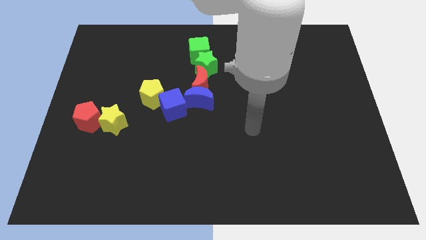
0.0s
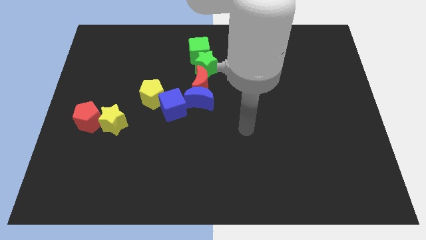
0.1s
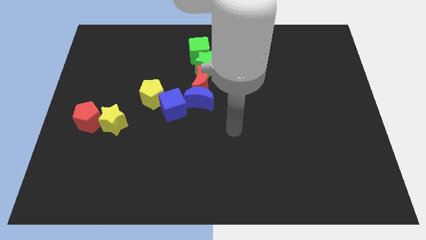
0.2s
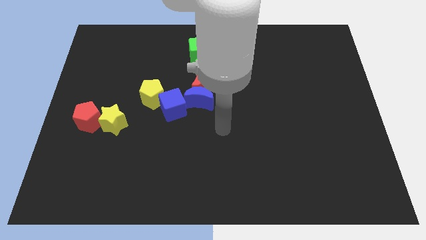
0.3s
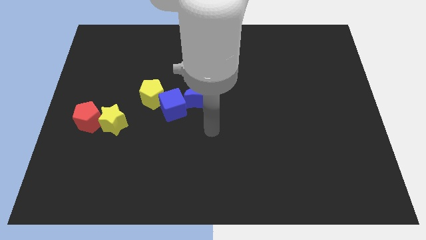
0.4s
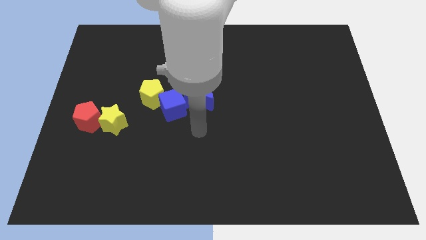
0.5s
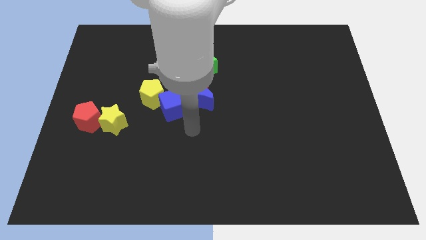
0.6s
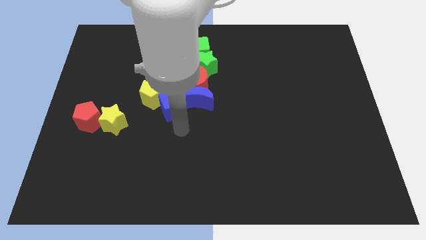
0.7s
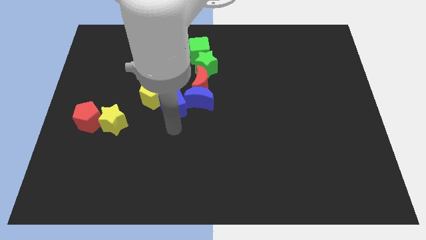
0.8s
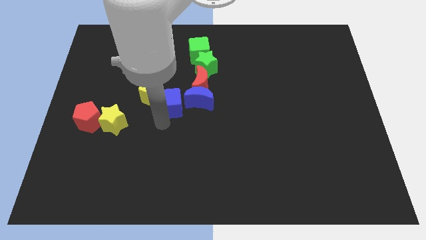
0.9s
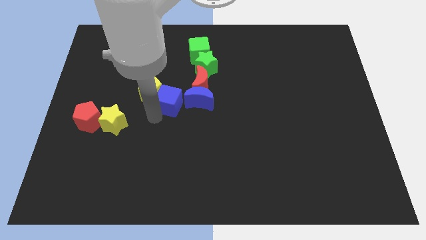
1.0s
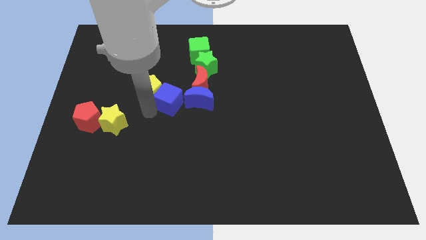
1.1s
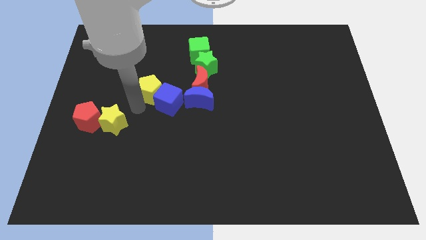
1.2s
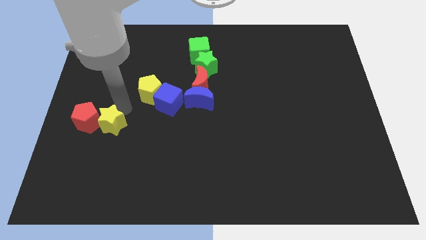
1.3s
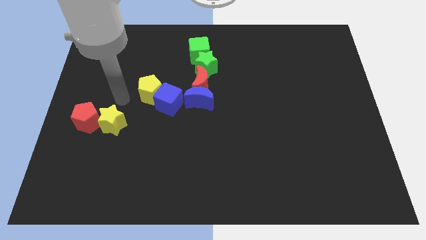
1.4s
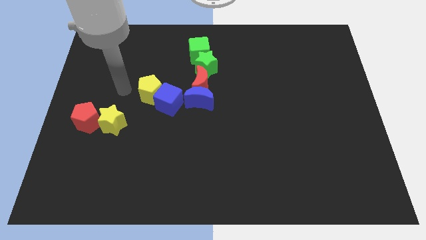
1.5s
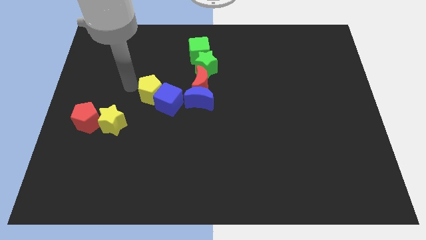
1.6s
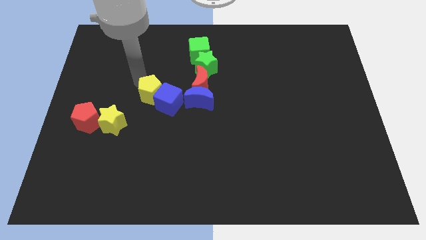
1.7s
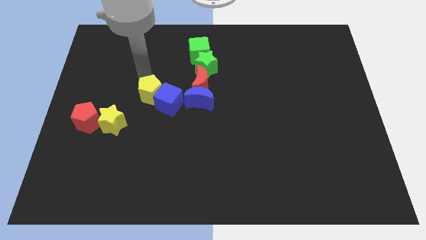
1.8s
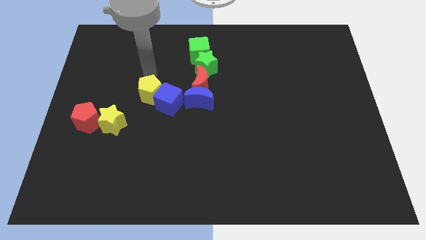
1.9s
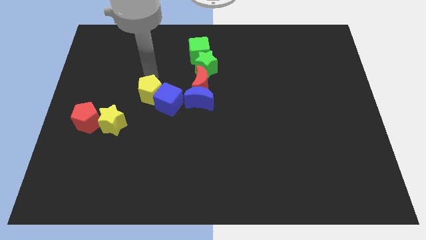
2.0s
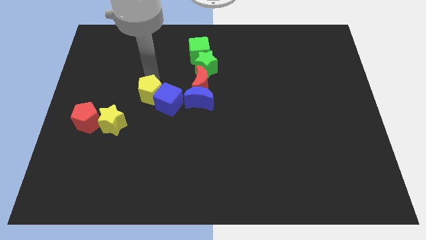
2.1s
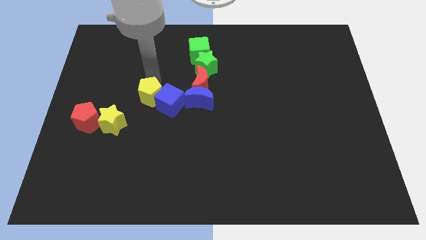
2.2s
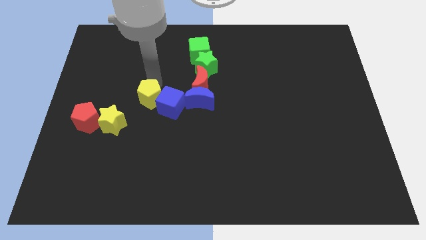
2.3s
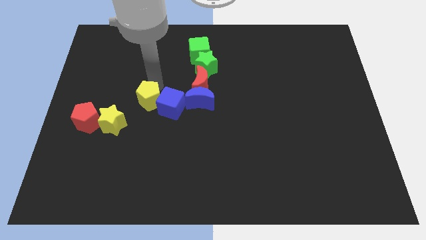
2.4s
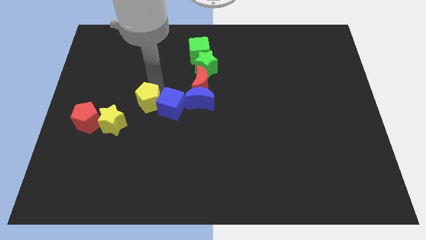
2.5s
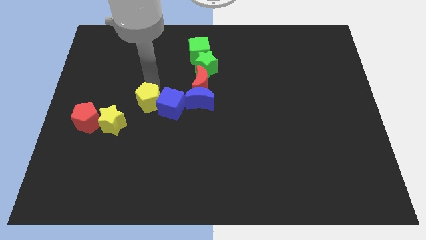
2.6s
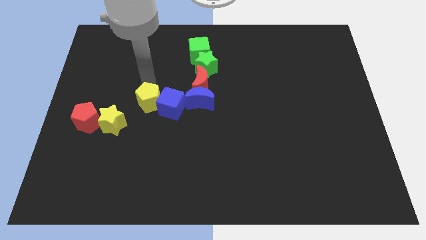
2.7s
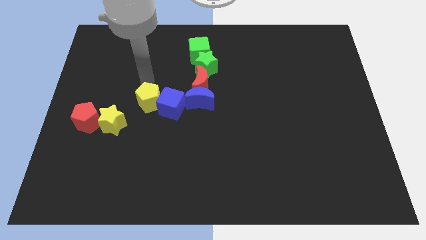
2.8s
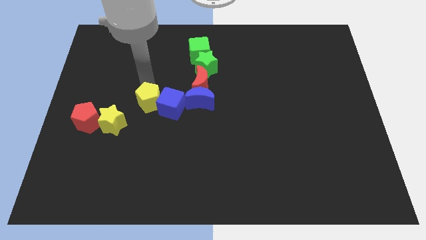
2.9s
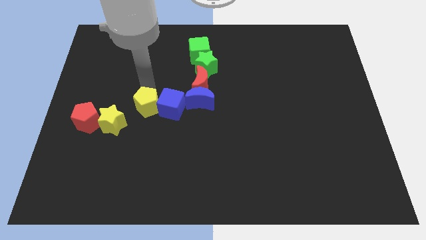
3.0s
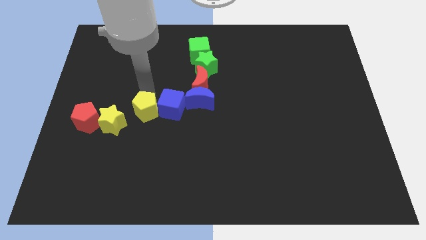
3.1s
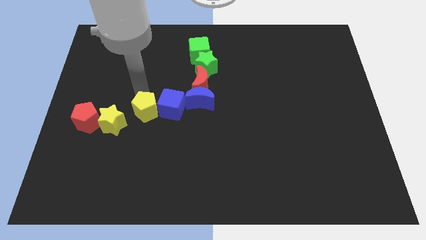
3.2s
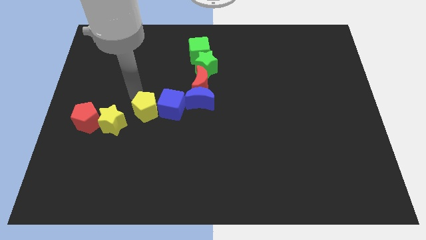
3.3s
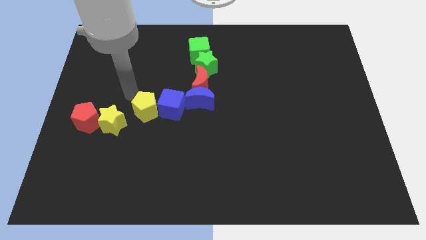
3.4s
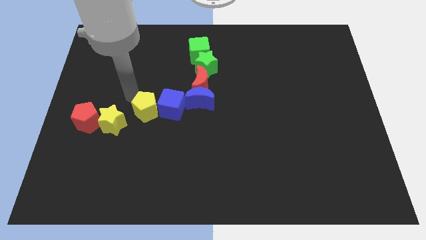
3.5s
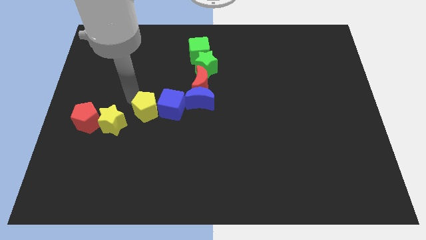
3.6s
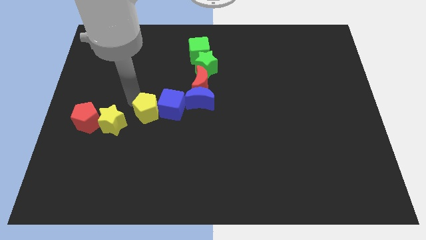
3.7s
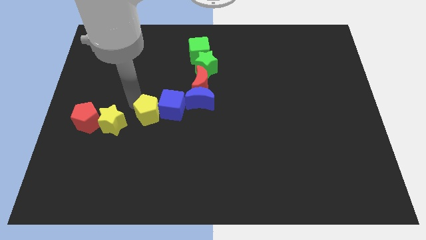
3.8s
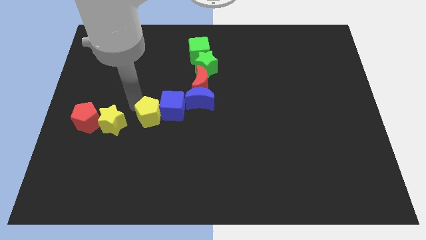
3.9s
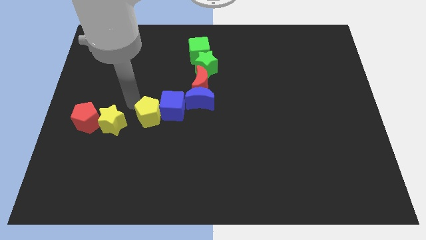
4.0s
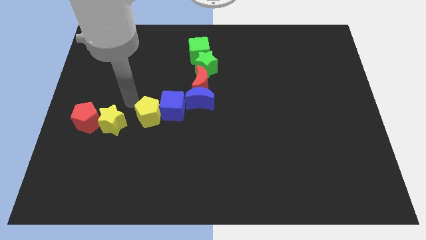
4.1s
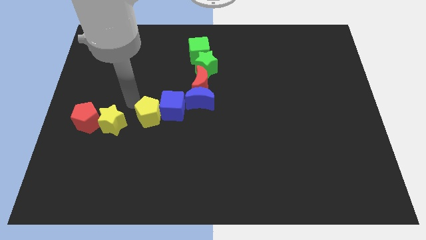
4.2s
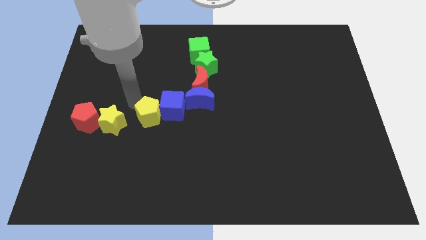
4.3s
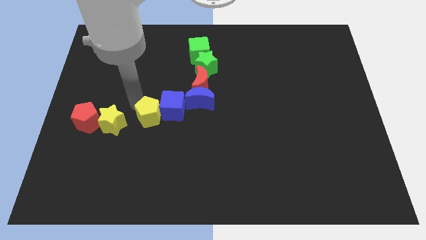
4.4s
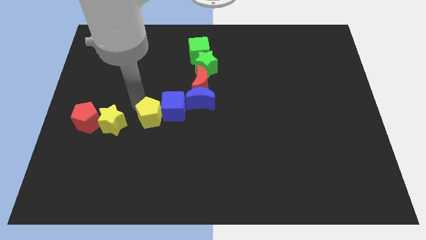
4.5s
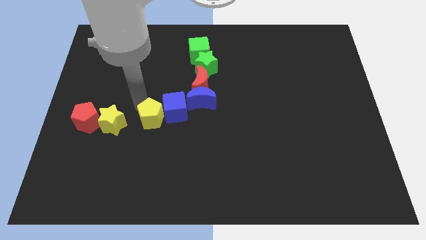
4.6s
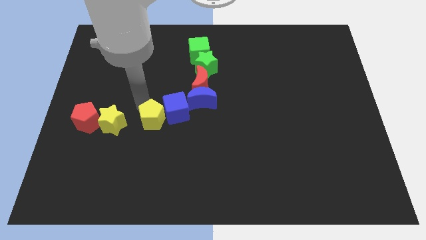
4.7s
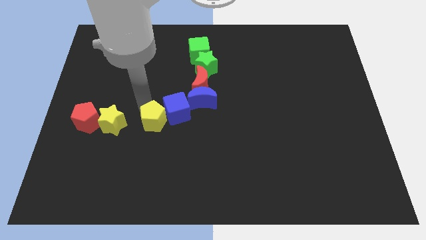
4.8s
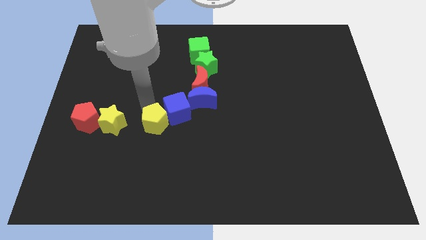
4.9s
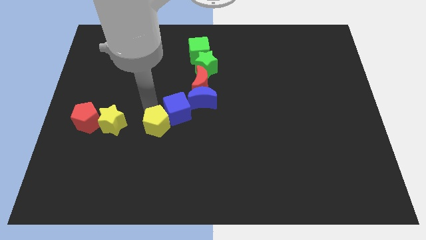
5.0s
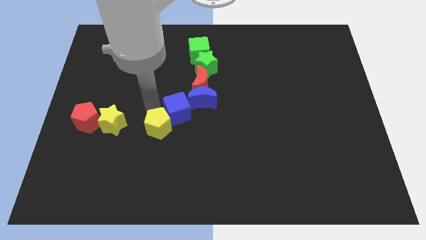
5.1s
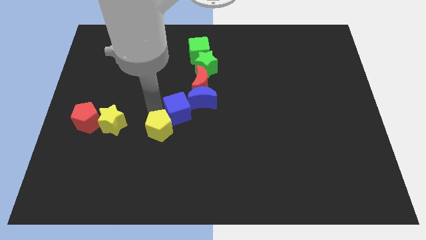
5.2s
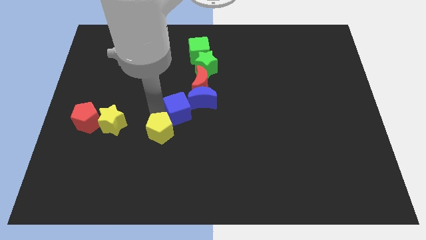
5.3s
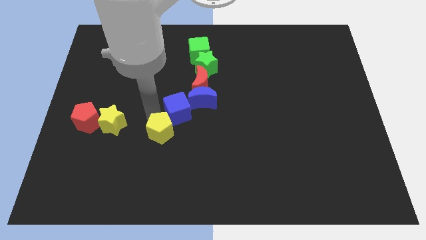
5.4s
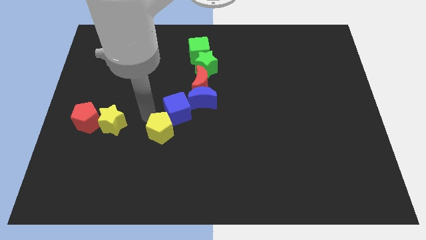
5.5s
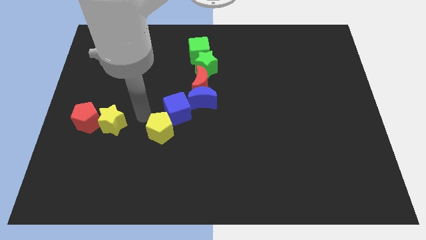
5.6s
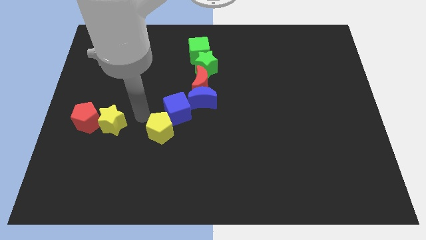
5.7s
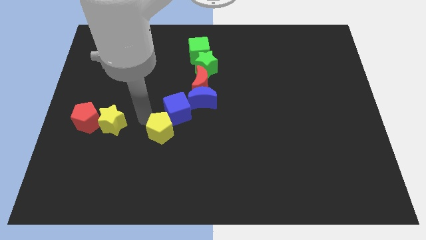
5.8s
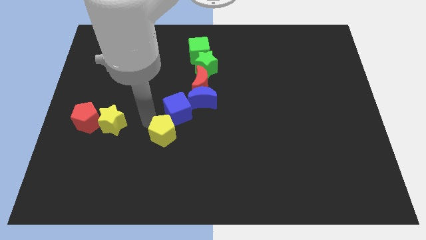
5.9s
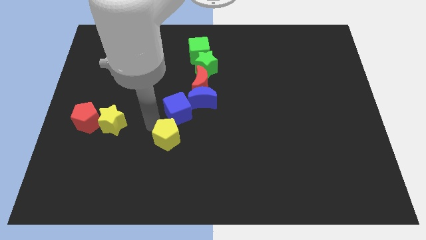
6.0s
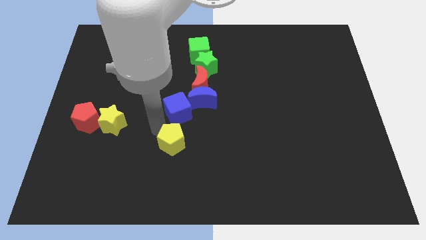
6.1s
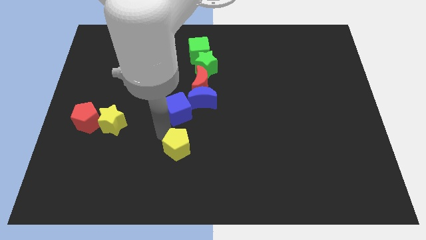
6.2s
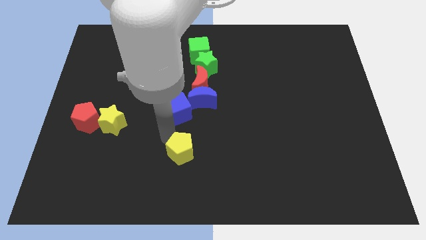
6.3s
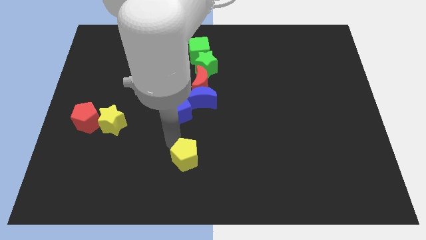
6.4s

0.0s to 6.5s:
push the yellow pentagon to the bottom
